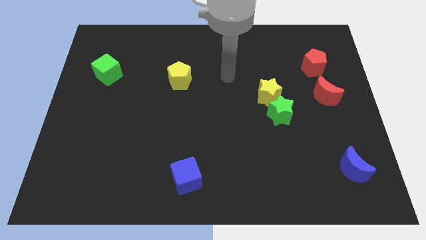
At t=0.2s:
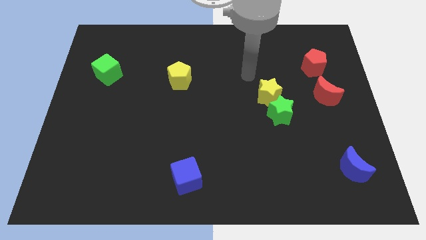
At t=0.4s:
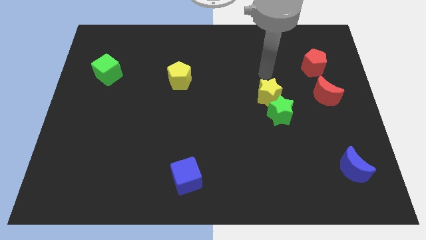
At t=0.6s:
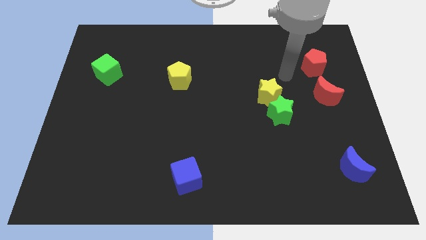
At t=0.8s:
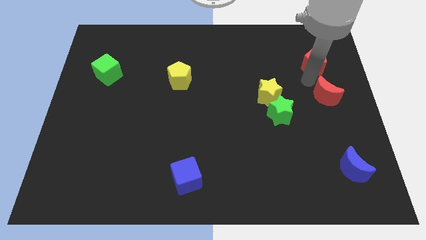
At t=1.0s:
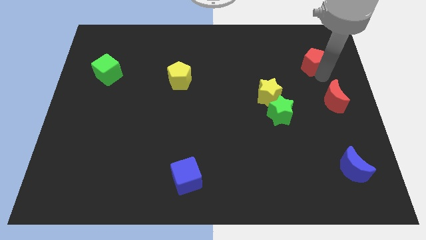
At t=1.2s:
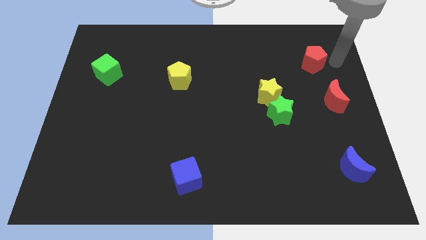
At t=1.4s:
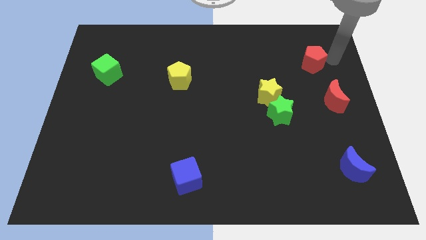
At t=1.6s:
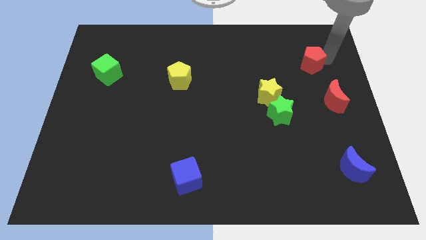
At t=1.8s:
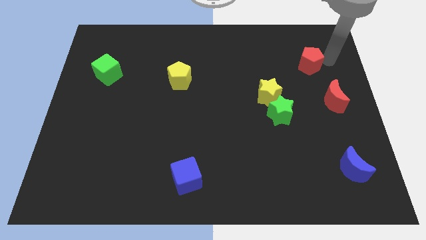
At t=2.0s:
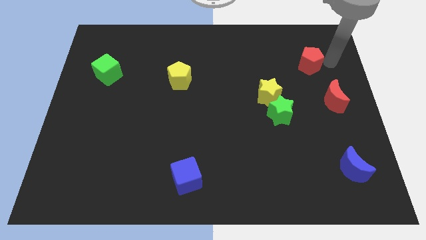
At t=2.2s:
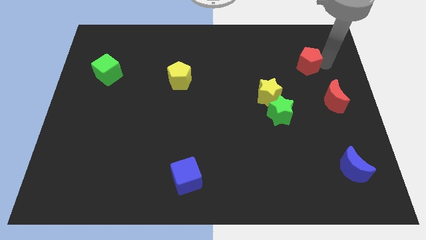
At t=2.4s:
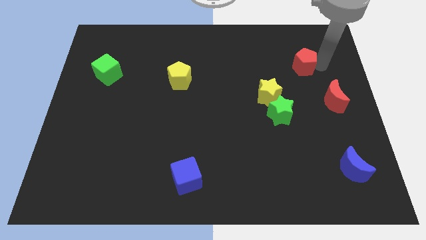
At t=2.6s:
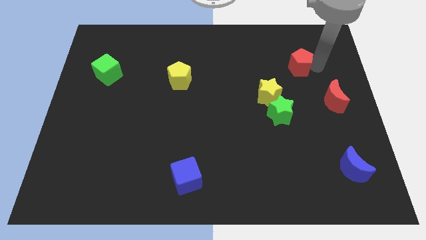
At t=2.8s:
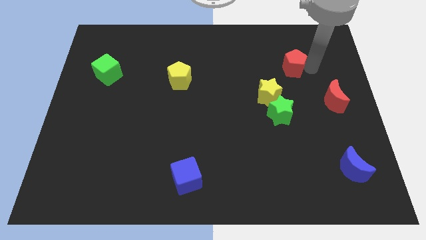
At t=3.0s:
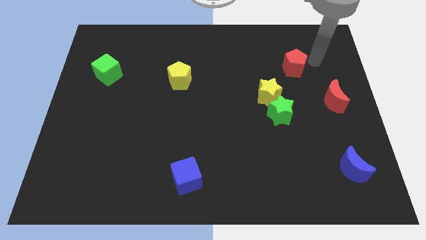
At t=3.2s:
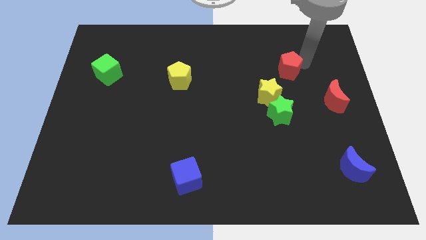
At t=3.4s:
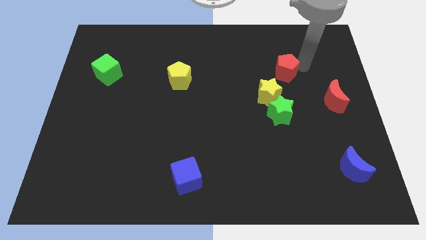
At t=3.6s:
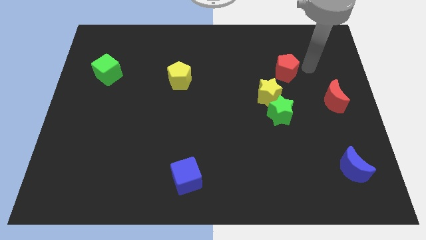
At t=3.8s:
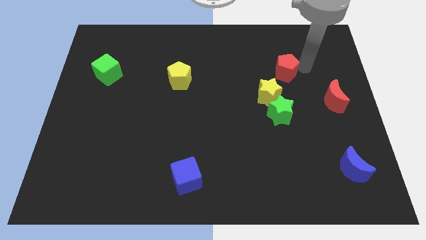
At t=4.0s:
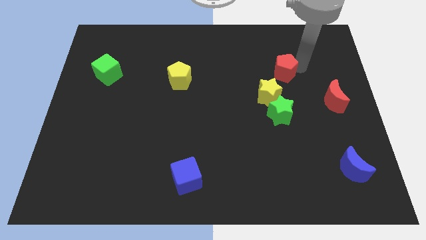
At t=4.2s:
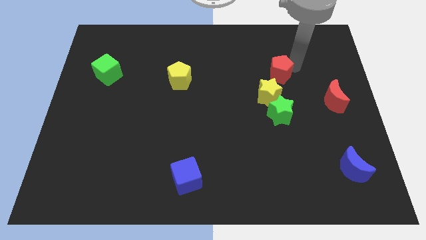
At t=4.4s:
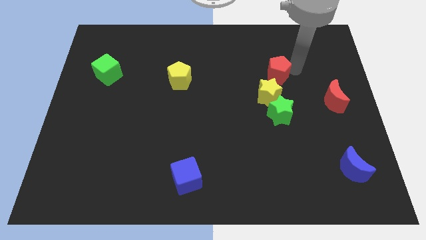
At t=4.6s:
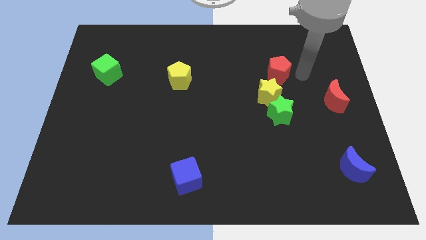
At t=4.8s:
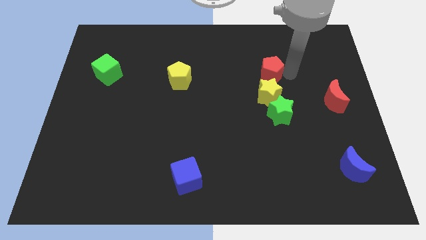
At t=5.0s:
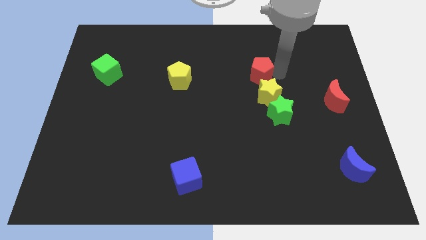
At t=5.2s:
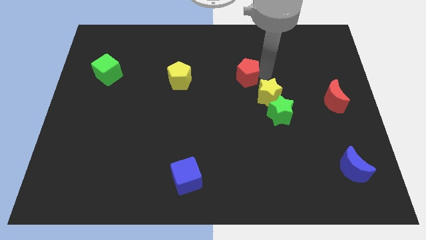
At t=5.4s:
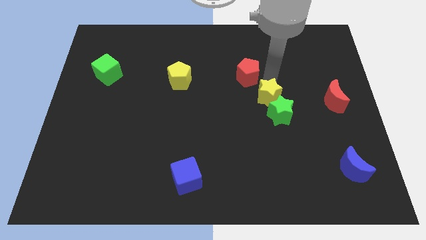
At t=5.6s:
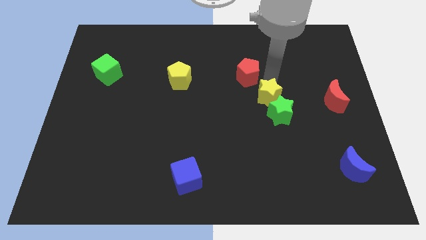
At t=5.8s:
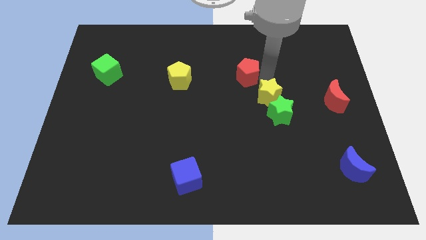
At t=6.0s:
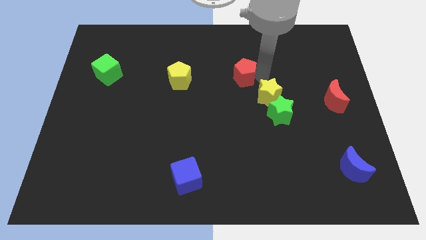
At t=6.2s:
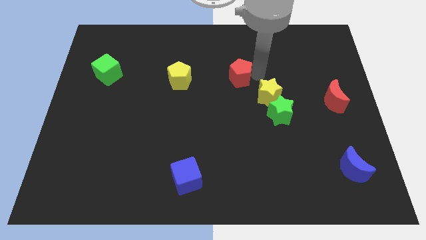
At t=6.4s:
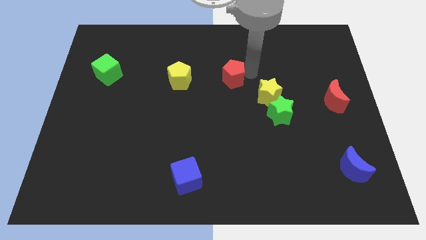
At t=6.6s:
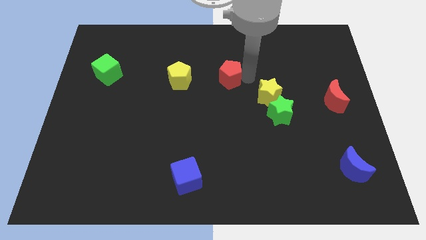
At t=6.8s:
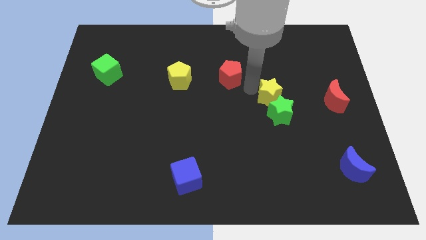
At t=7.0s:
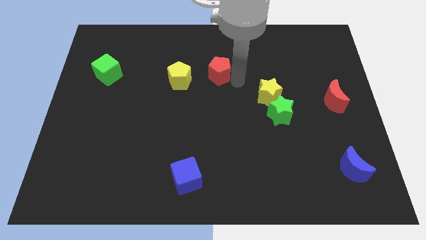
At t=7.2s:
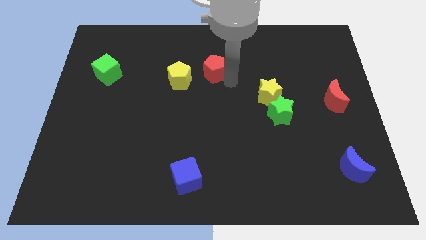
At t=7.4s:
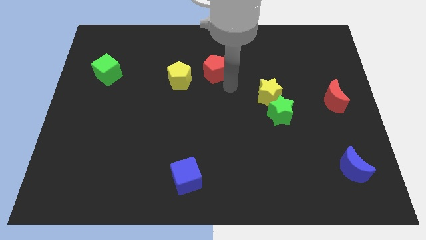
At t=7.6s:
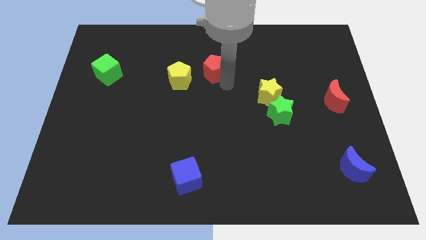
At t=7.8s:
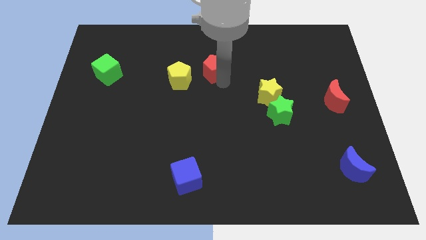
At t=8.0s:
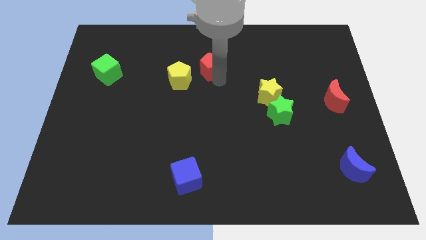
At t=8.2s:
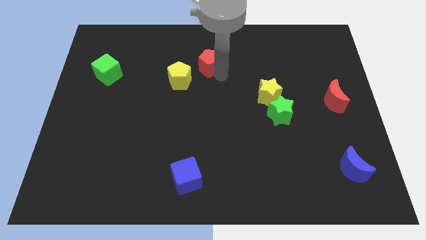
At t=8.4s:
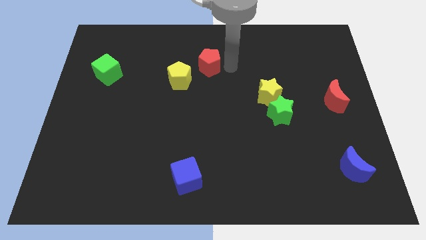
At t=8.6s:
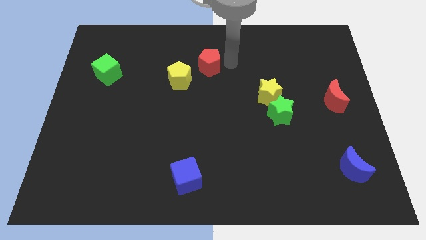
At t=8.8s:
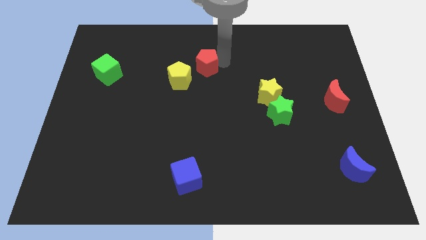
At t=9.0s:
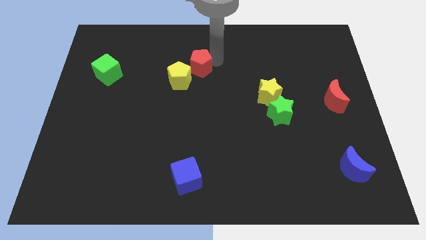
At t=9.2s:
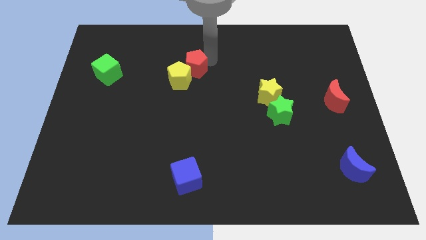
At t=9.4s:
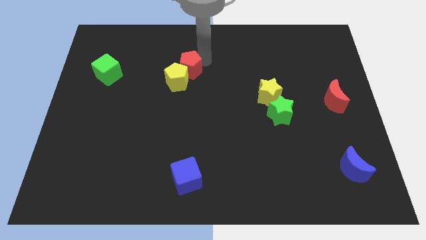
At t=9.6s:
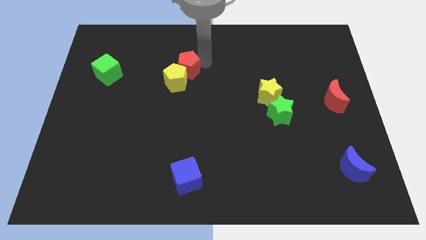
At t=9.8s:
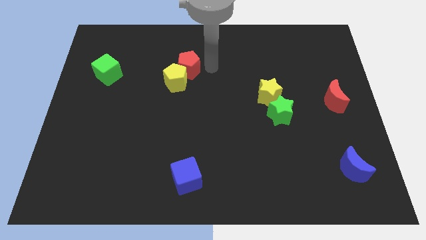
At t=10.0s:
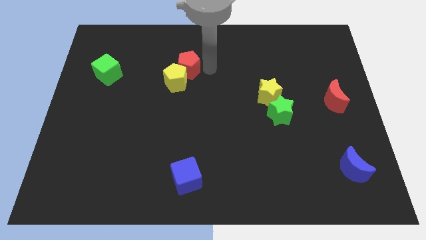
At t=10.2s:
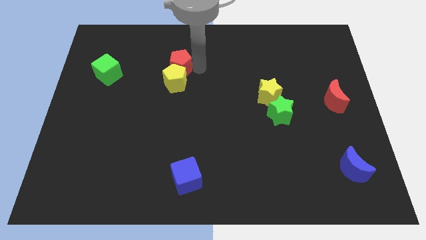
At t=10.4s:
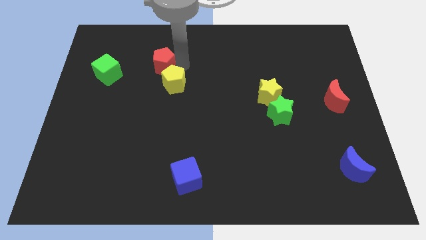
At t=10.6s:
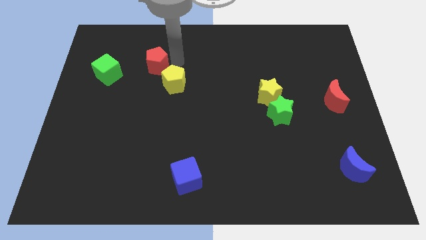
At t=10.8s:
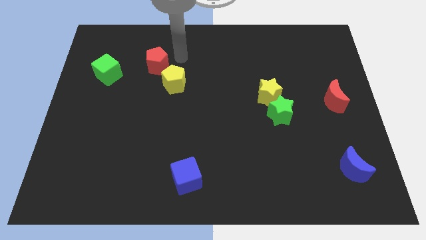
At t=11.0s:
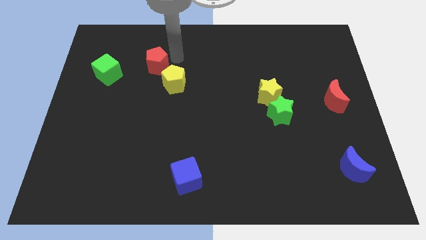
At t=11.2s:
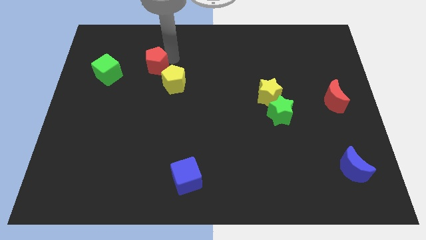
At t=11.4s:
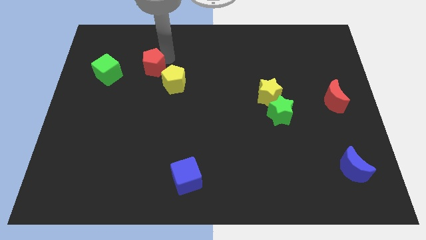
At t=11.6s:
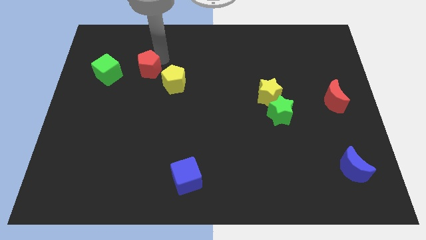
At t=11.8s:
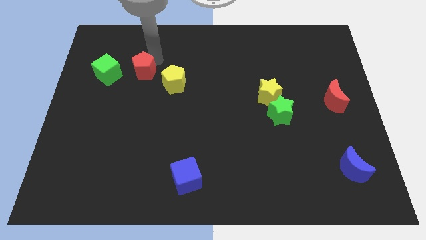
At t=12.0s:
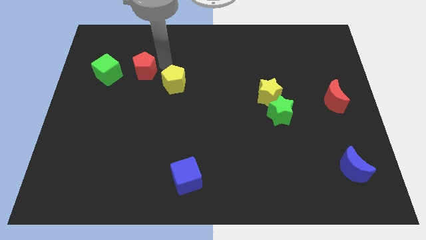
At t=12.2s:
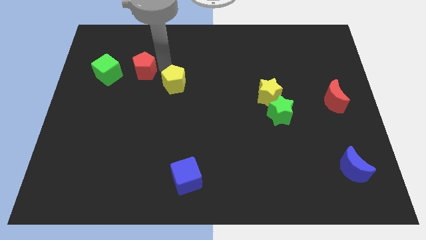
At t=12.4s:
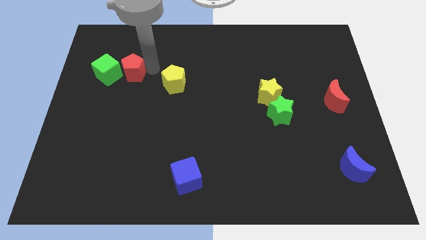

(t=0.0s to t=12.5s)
move the red pentagon close to the green cube

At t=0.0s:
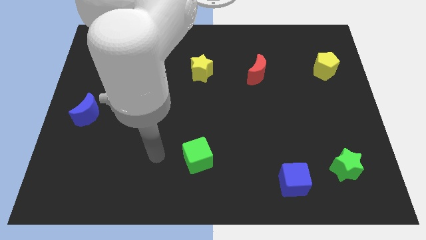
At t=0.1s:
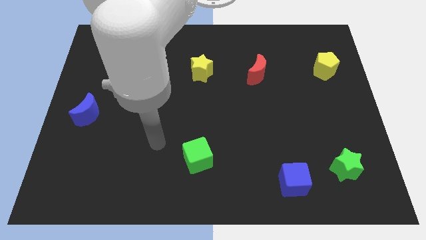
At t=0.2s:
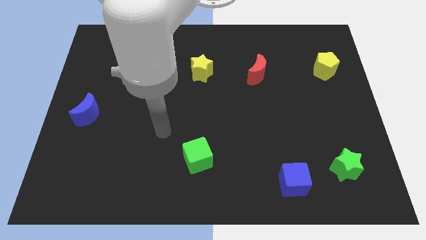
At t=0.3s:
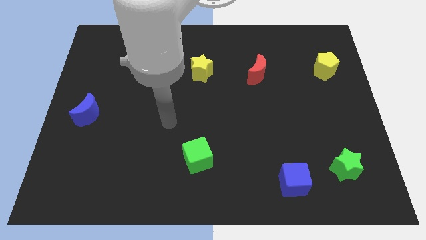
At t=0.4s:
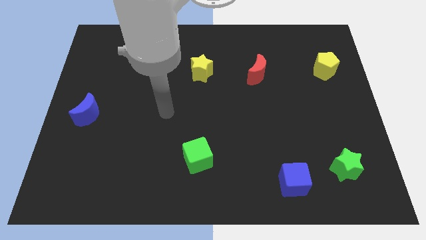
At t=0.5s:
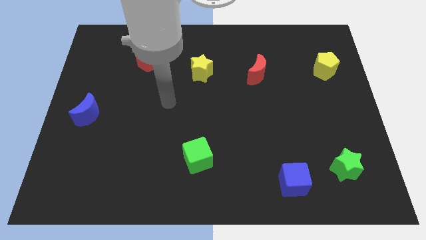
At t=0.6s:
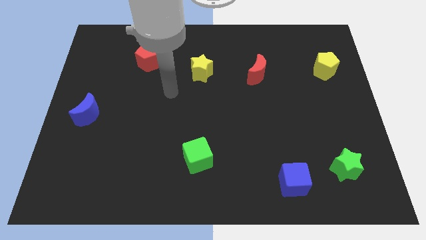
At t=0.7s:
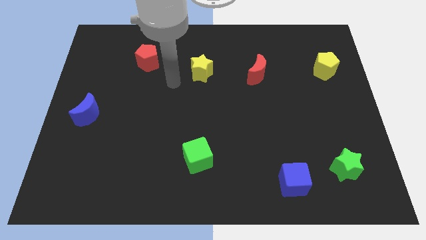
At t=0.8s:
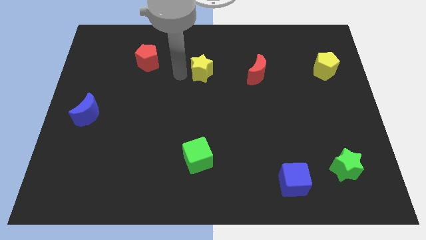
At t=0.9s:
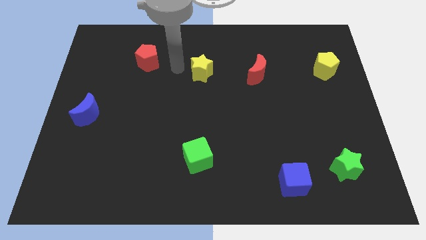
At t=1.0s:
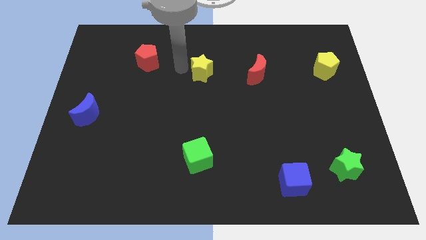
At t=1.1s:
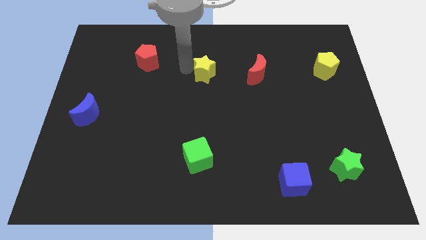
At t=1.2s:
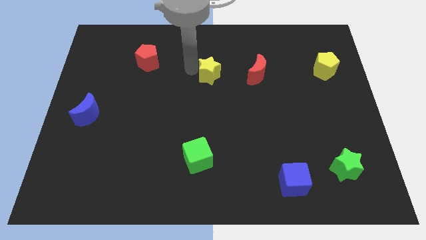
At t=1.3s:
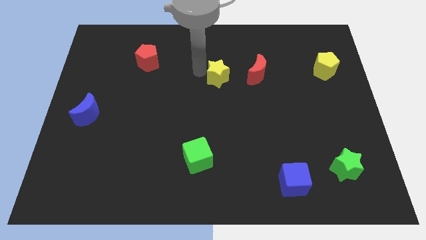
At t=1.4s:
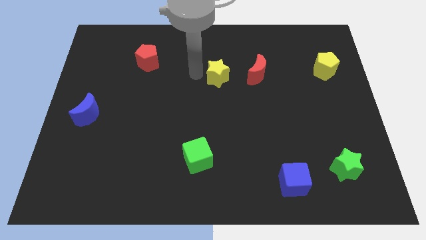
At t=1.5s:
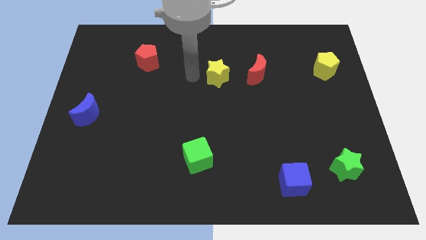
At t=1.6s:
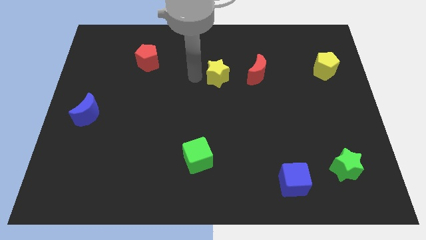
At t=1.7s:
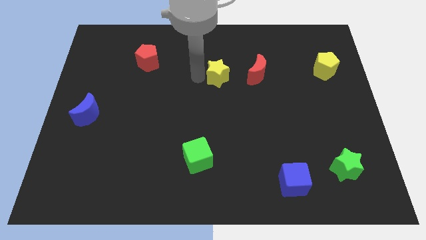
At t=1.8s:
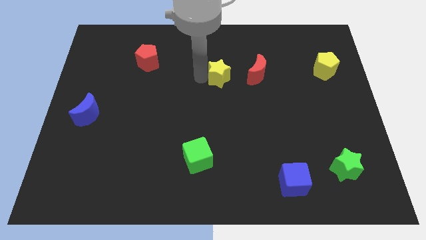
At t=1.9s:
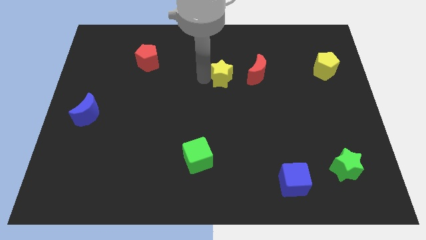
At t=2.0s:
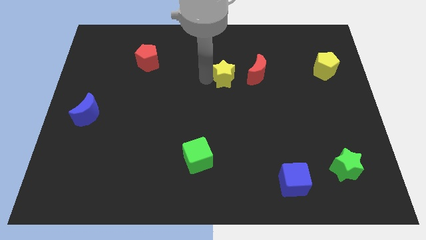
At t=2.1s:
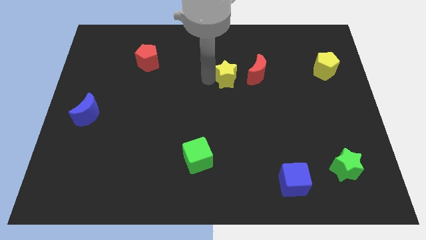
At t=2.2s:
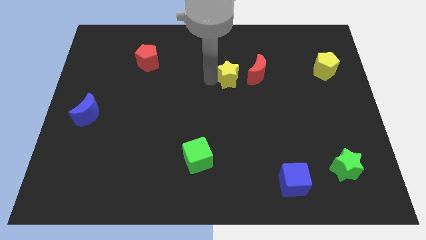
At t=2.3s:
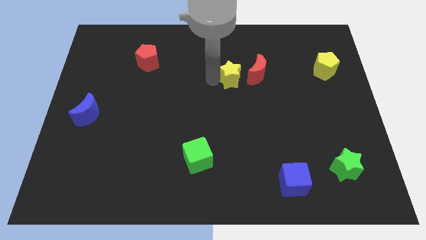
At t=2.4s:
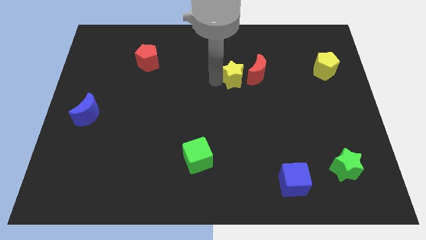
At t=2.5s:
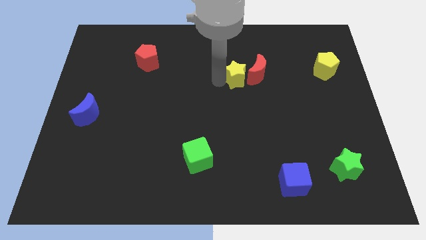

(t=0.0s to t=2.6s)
push the yellow star towards the red moon
